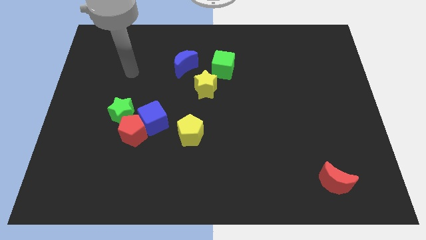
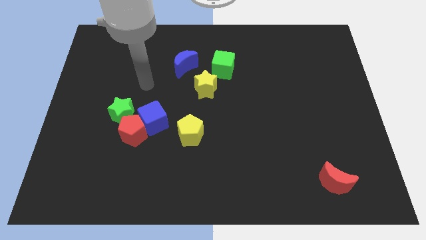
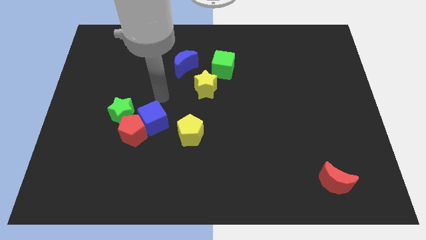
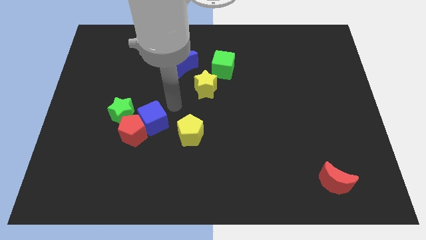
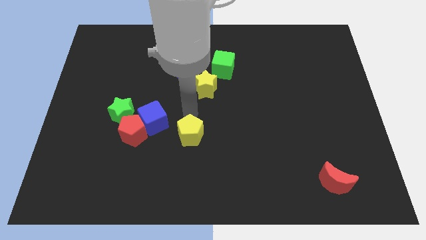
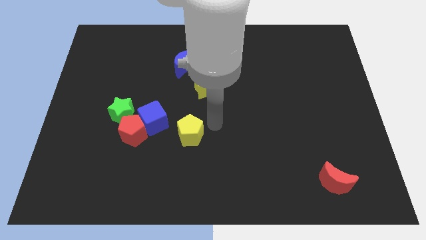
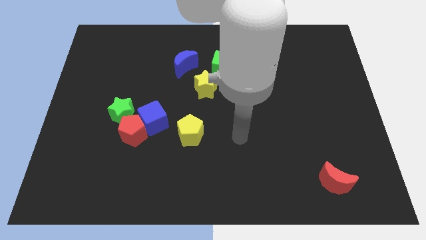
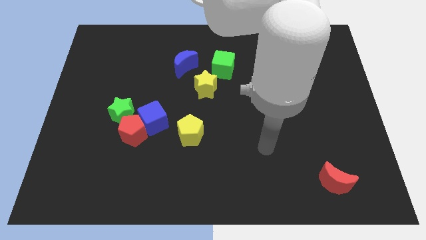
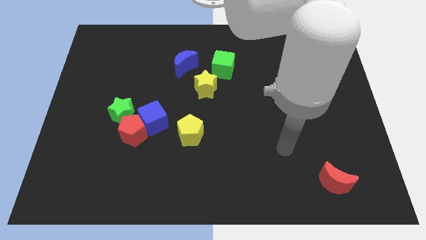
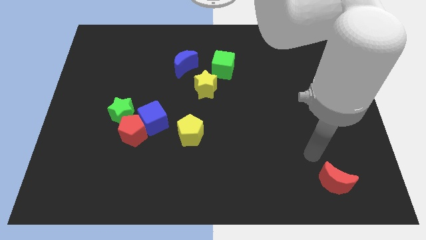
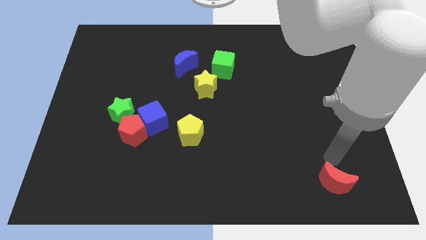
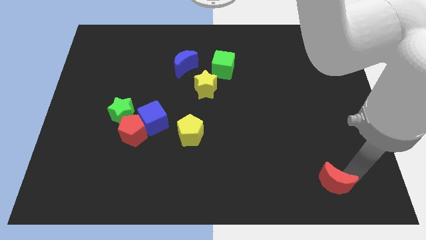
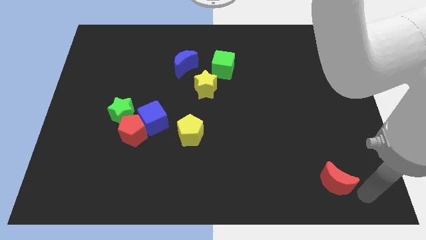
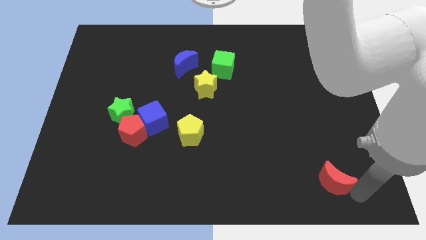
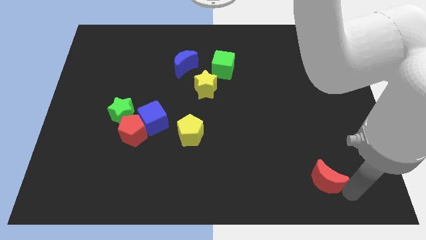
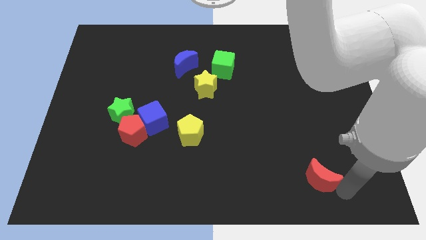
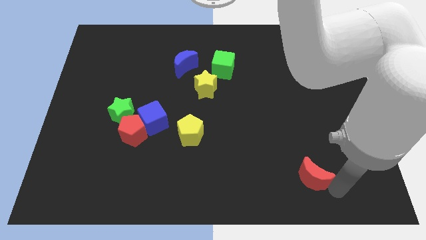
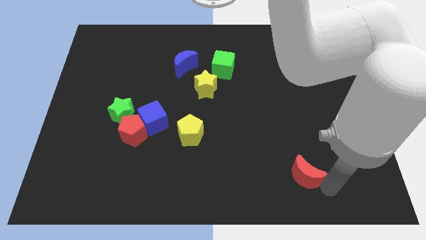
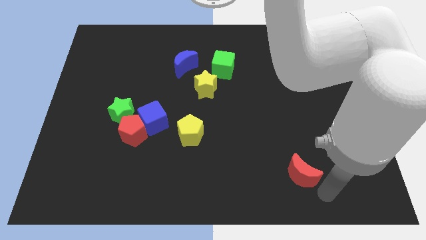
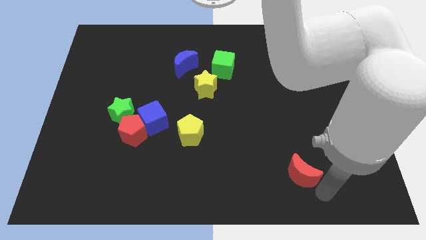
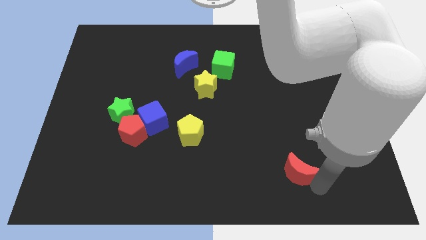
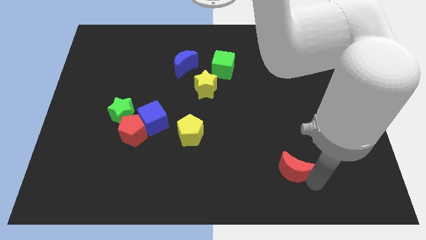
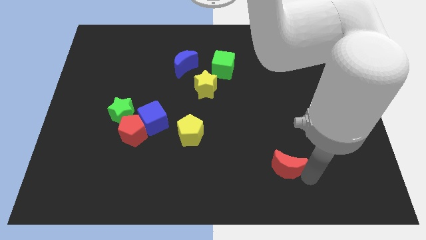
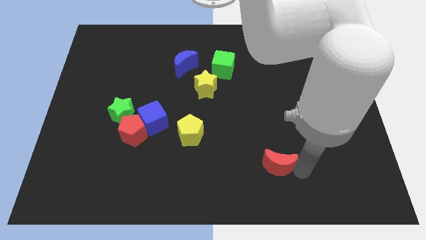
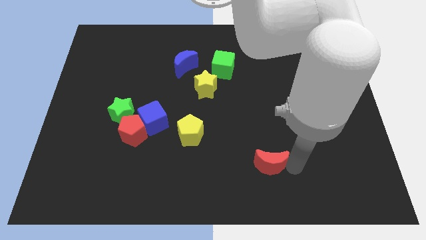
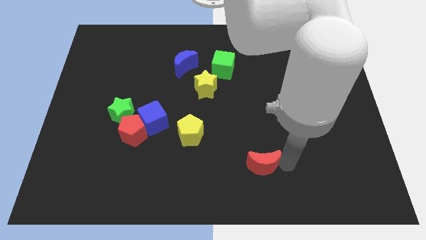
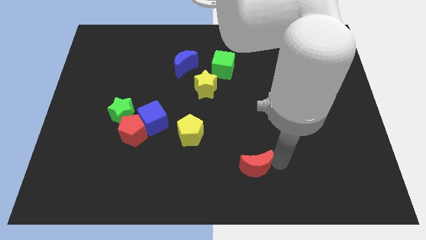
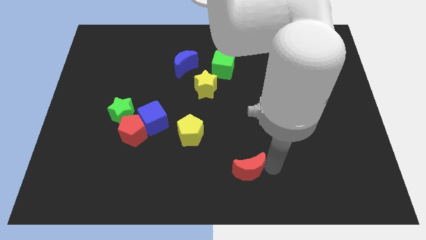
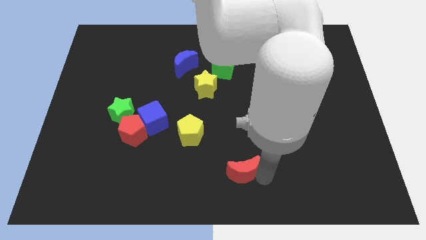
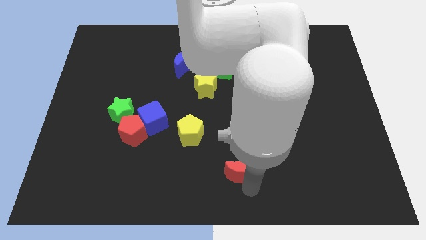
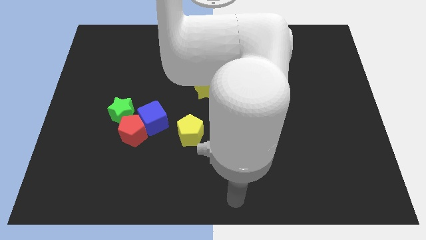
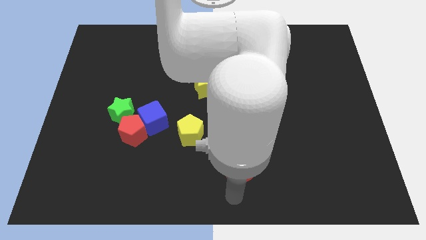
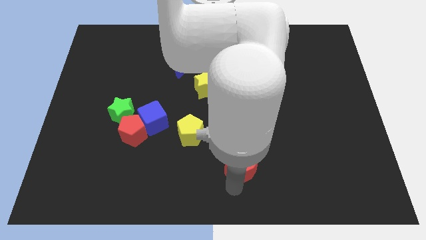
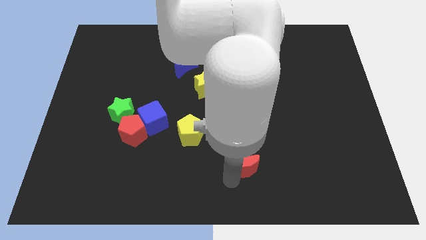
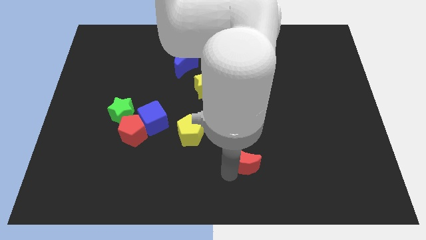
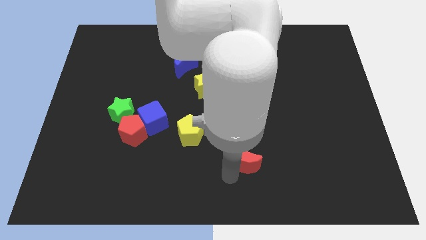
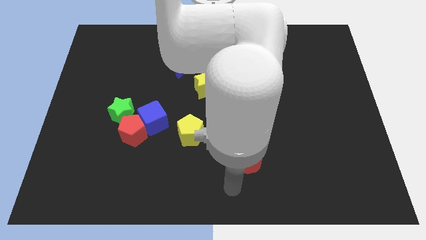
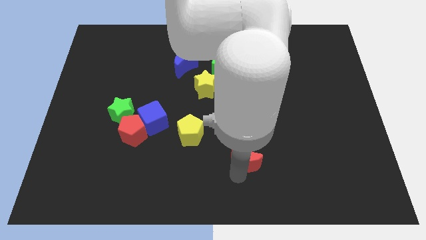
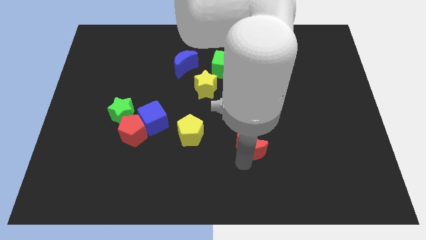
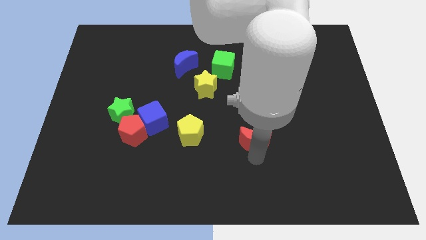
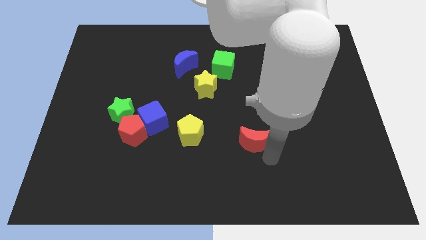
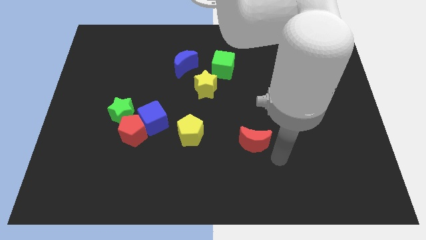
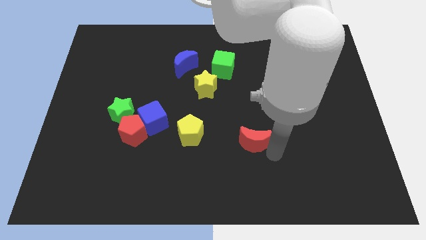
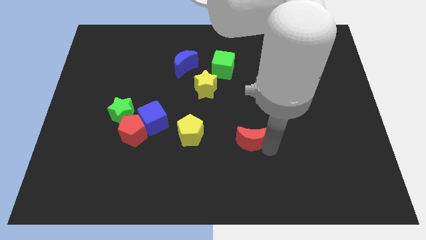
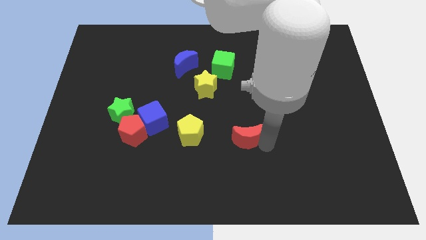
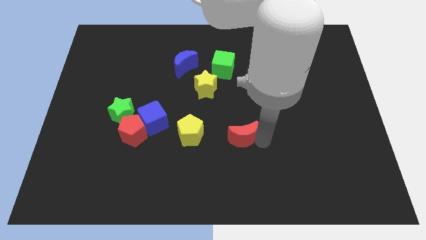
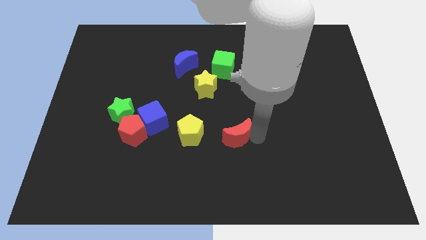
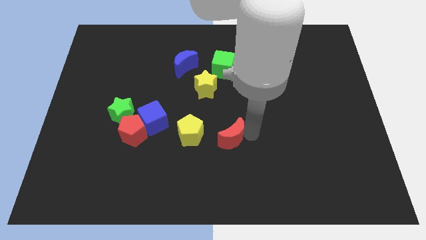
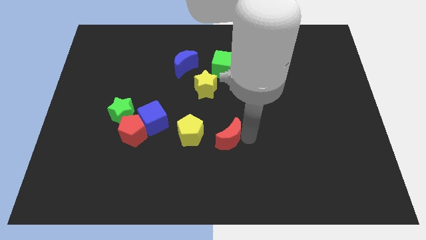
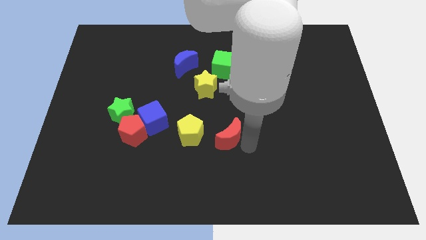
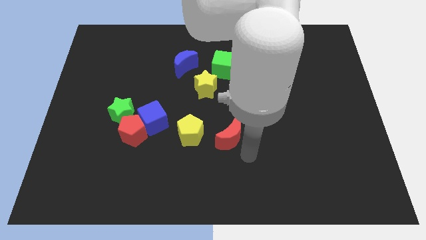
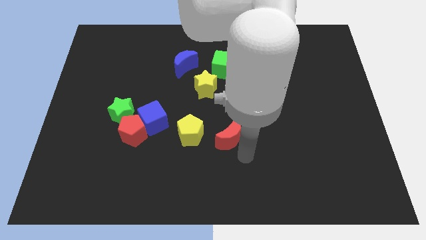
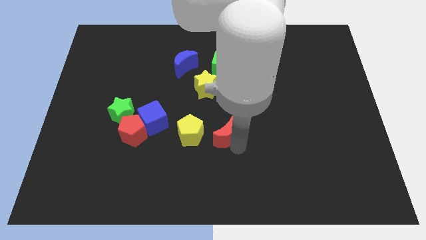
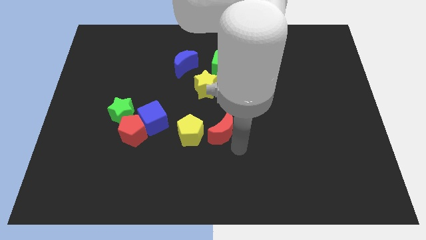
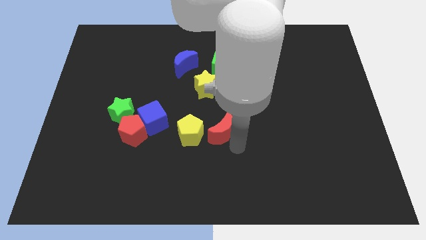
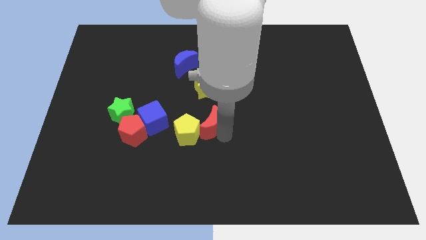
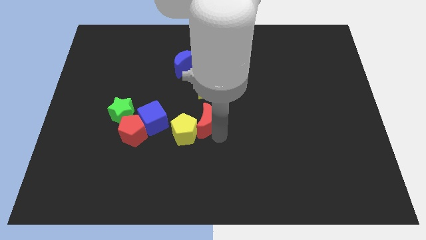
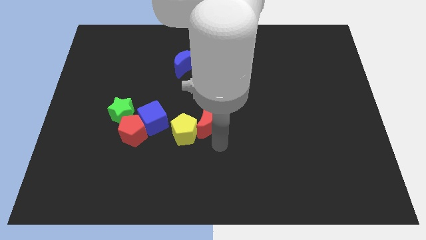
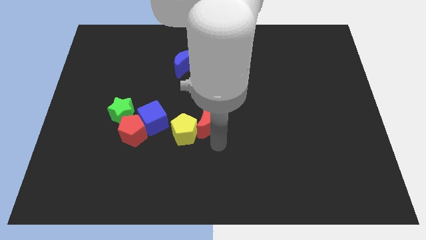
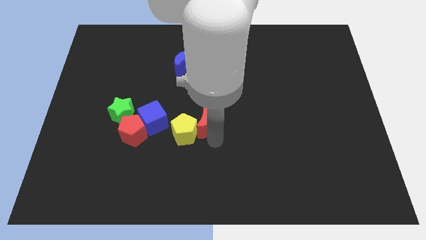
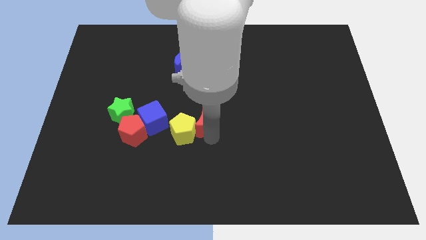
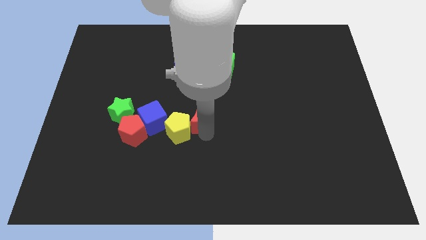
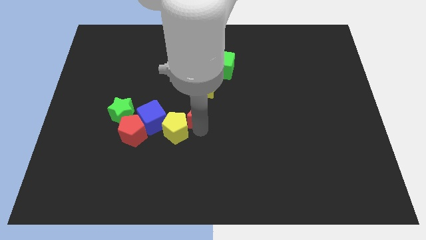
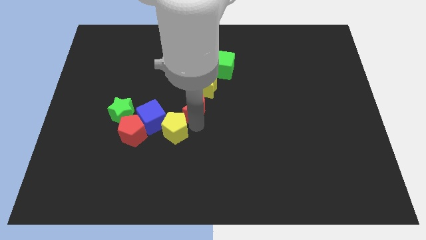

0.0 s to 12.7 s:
move the red moon below the blue moon
